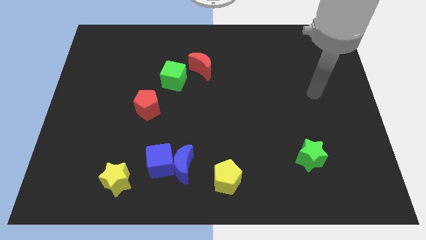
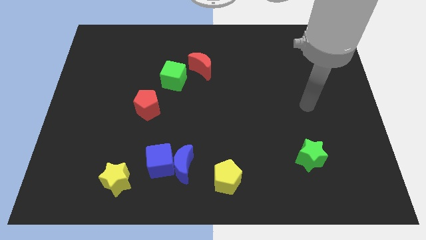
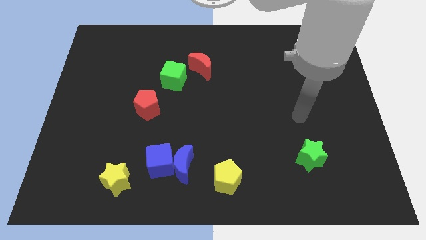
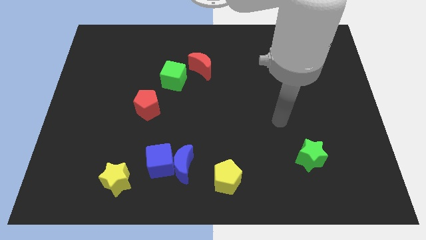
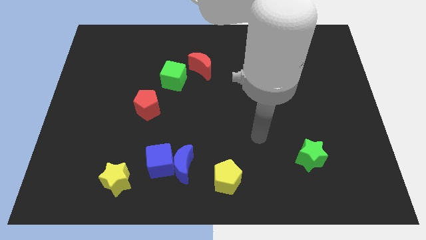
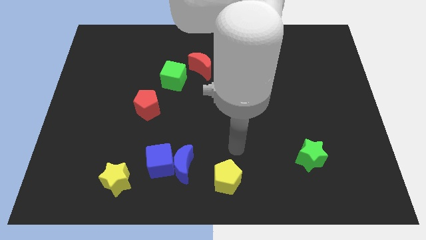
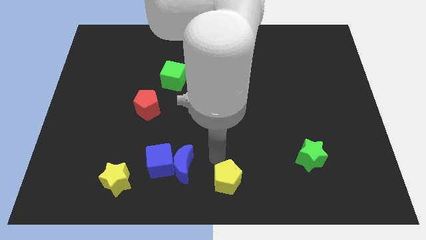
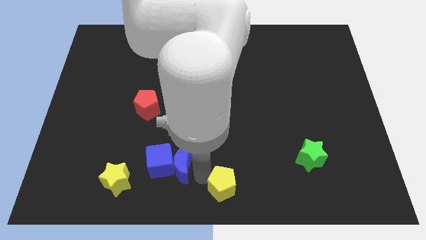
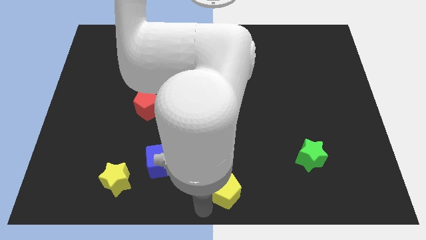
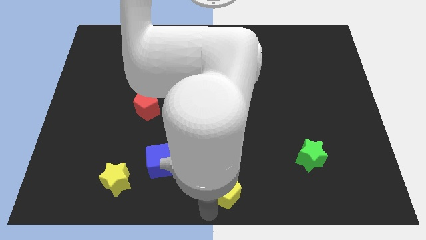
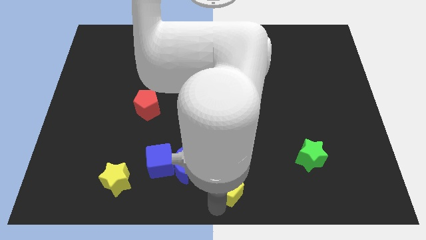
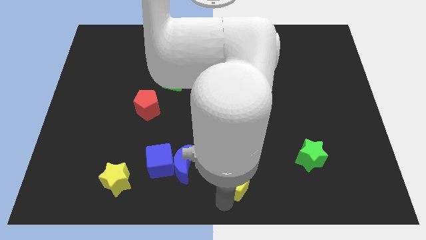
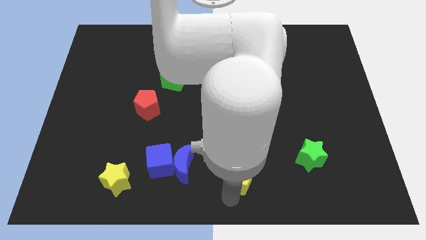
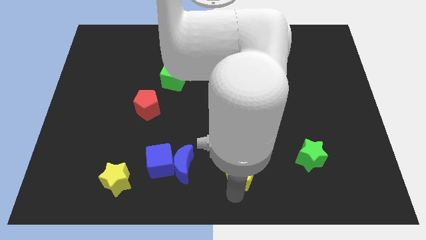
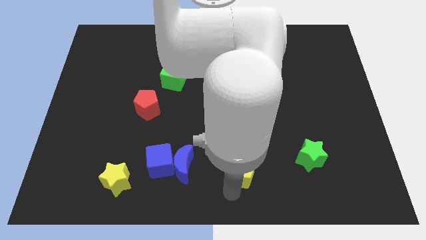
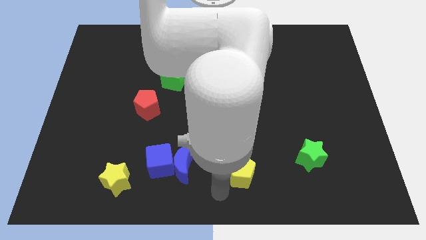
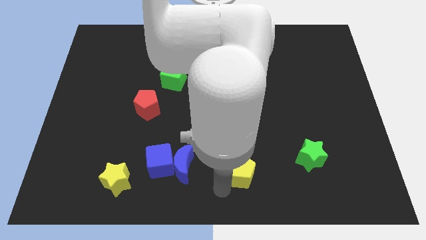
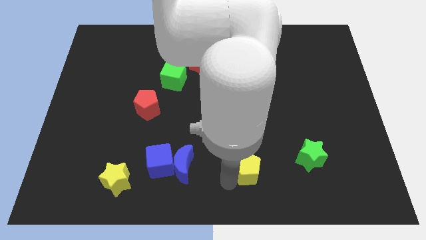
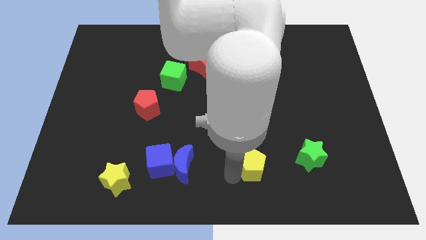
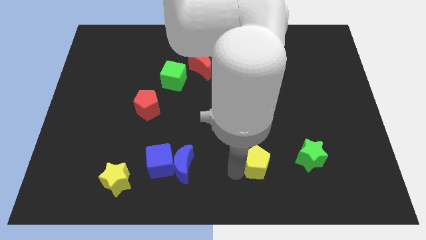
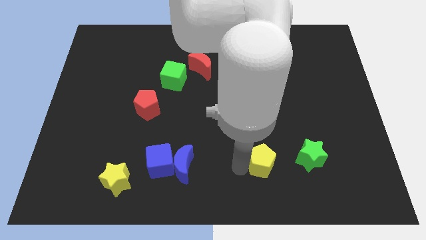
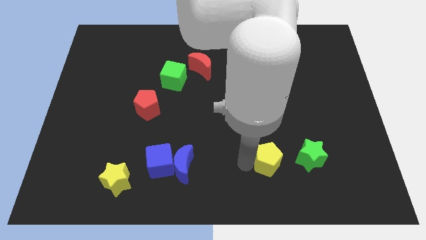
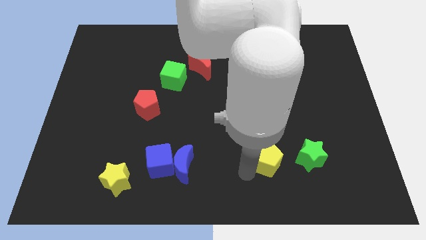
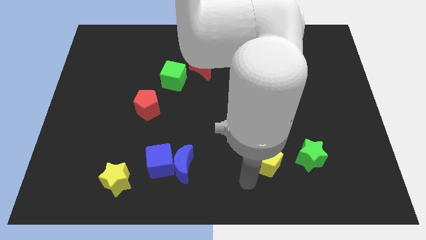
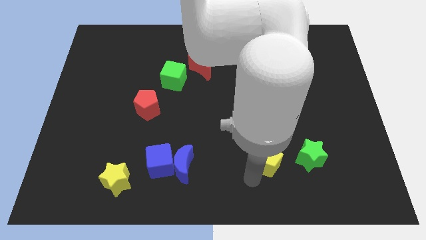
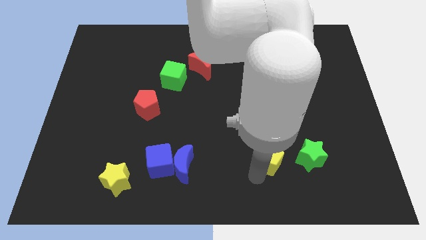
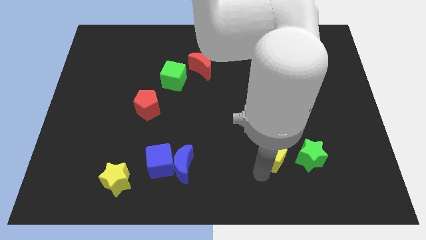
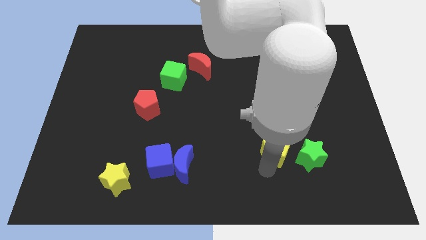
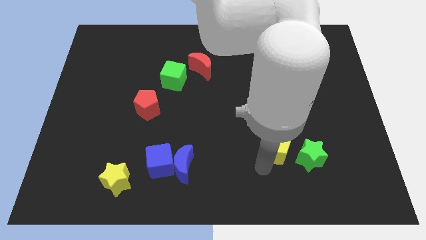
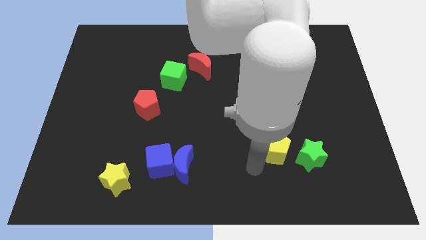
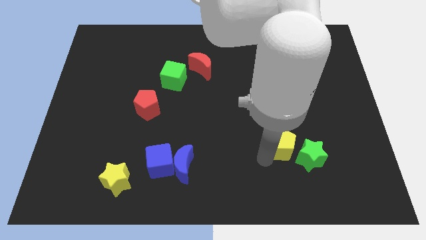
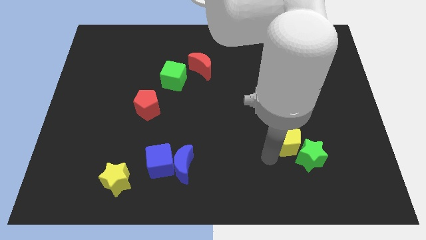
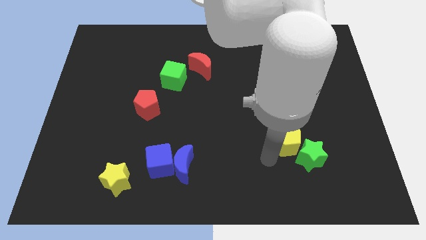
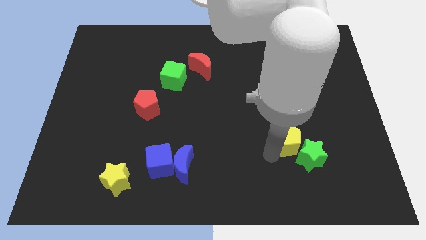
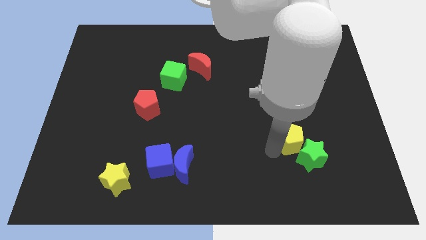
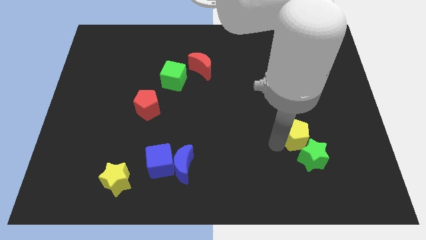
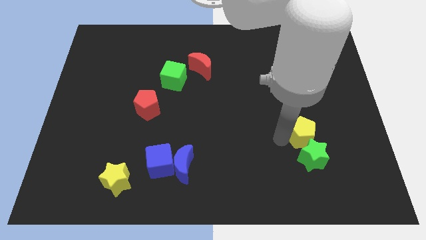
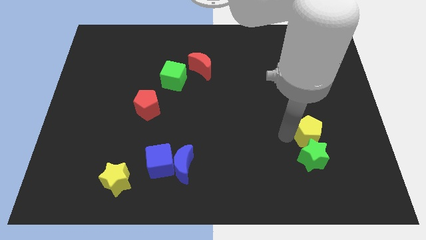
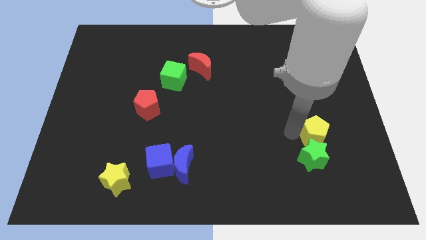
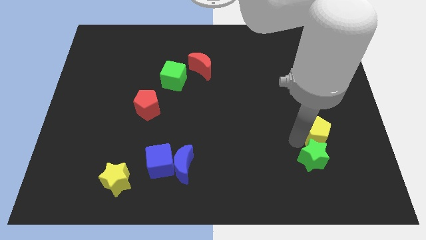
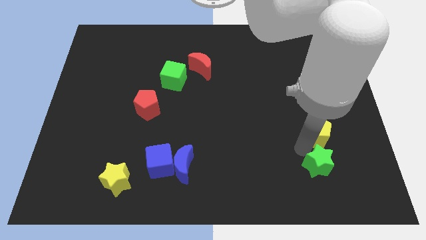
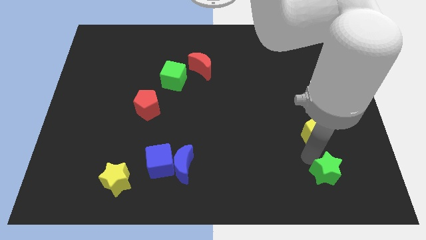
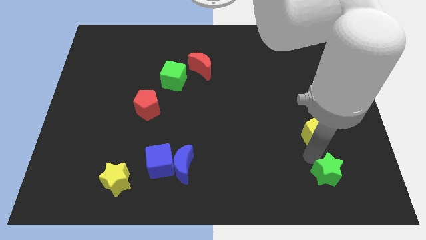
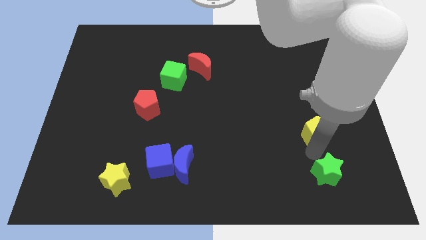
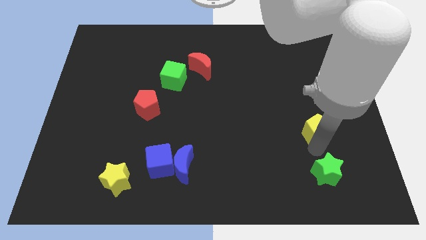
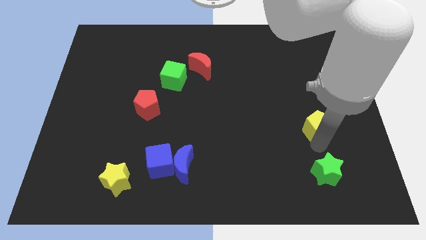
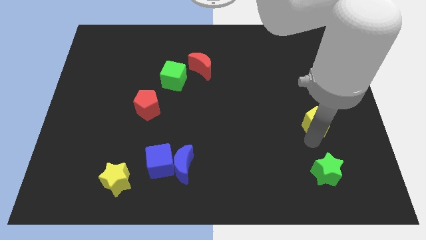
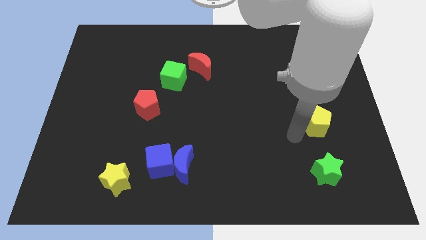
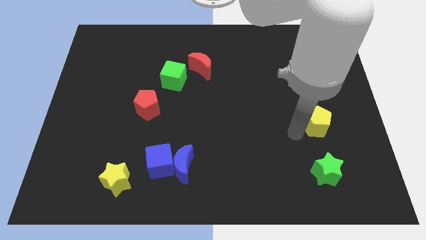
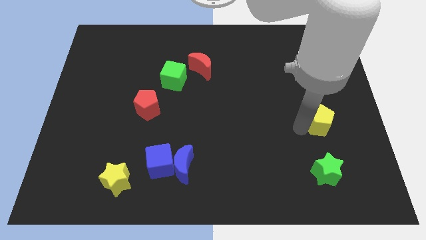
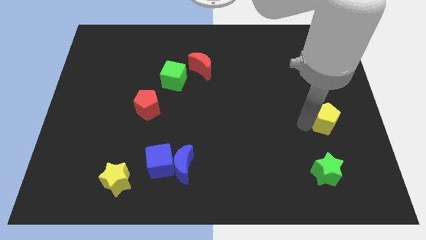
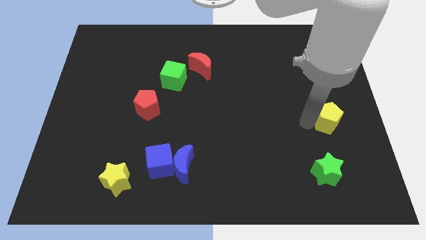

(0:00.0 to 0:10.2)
move the yellow pentagon to the right side of the board

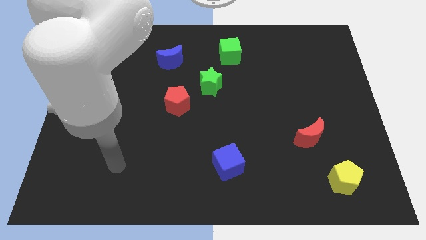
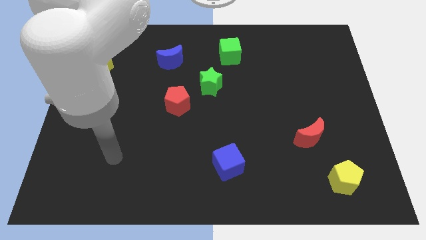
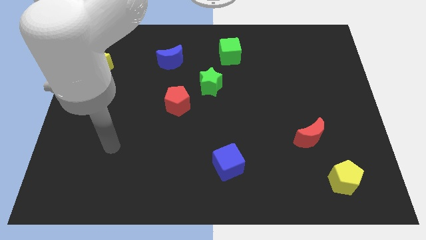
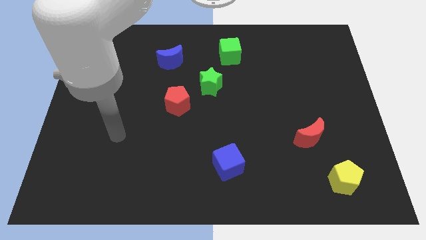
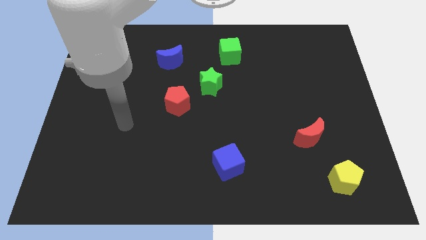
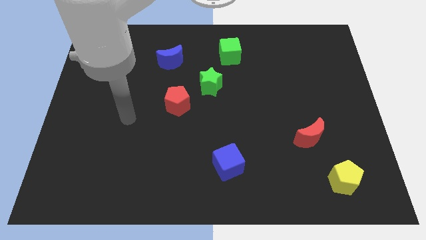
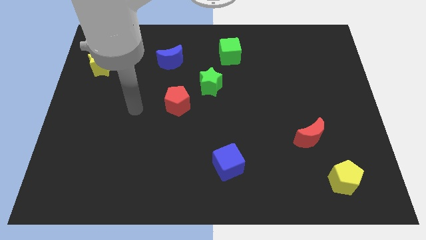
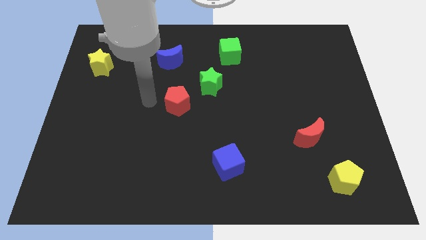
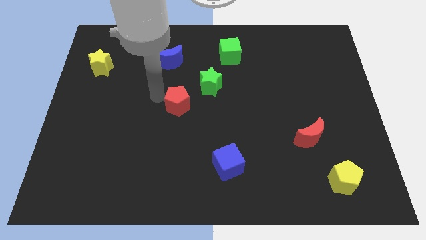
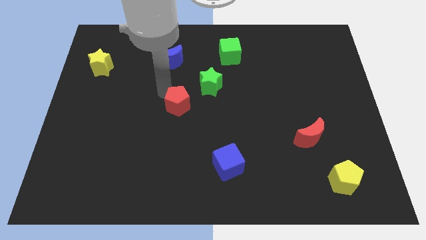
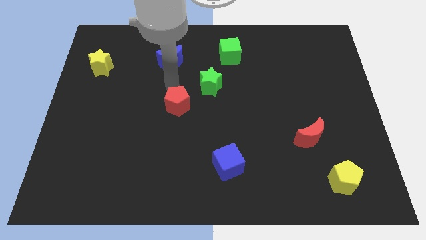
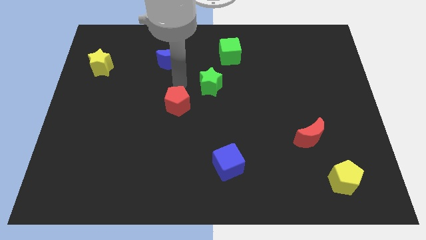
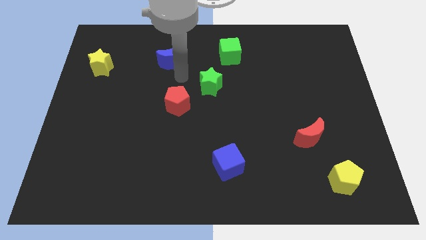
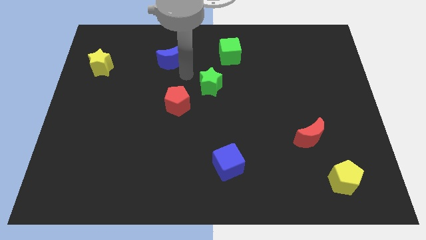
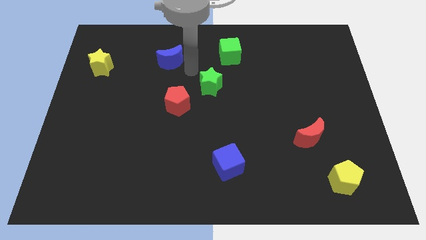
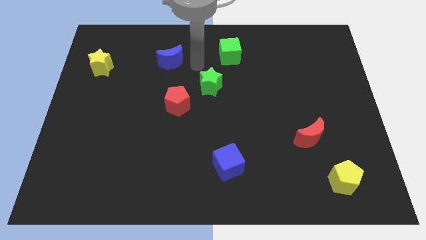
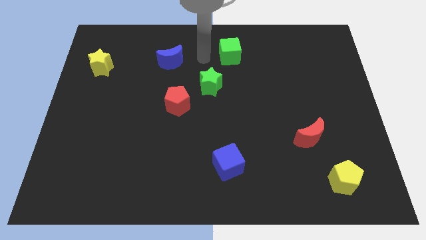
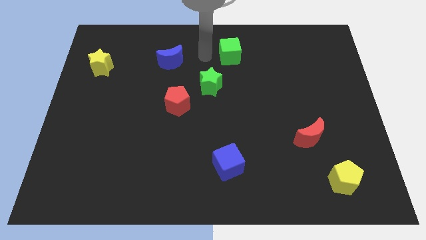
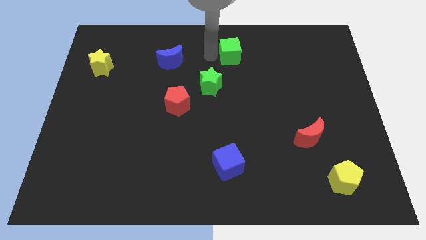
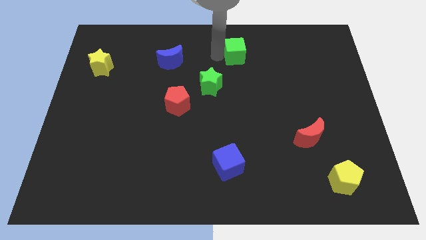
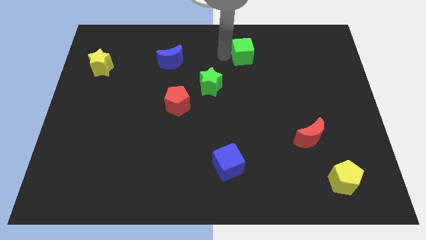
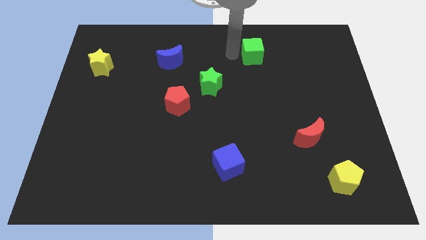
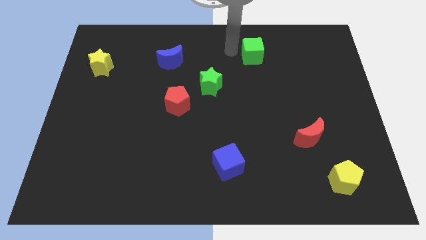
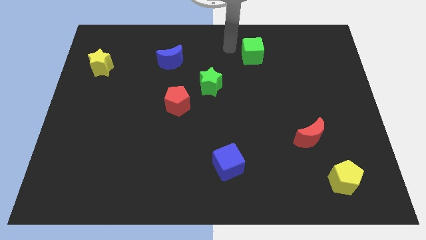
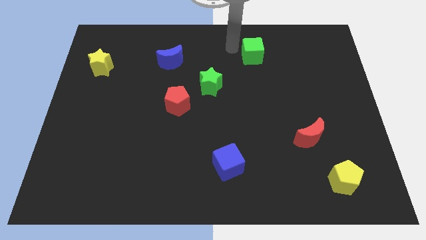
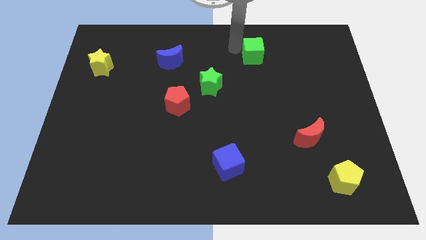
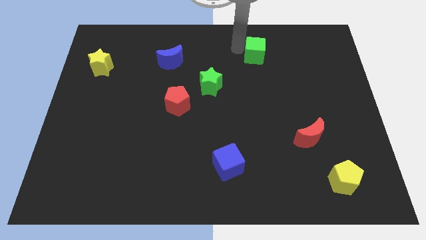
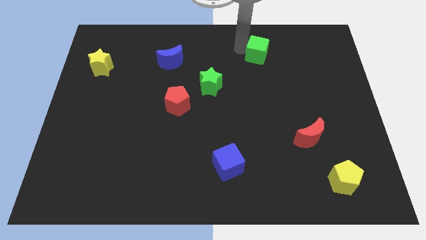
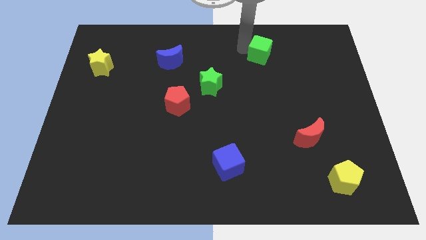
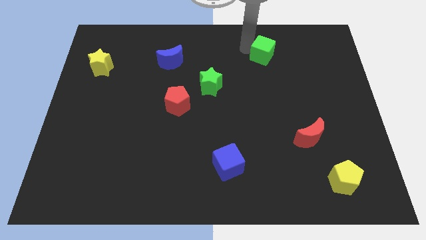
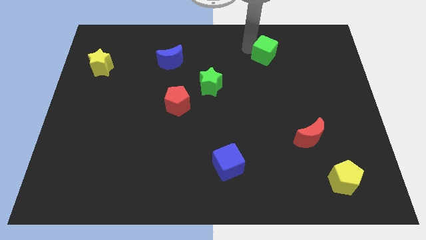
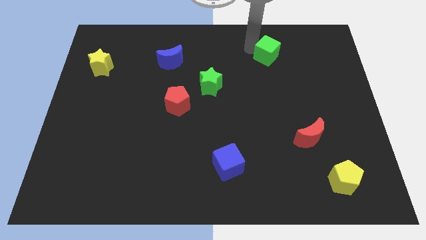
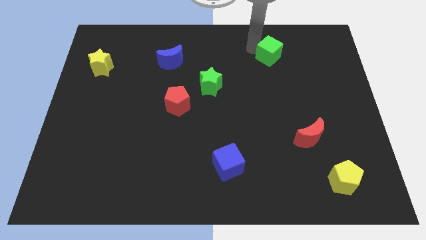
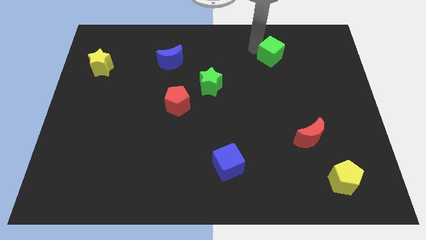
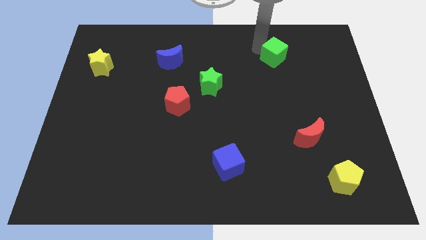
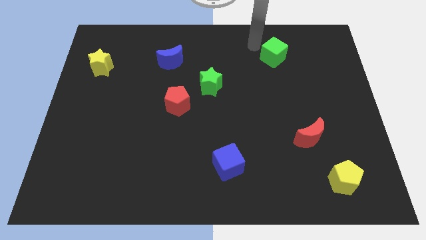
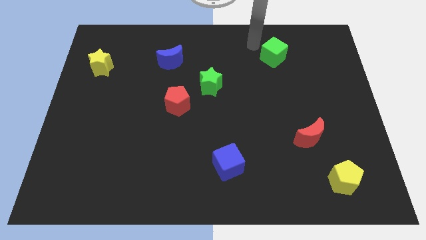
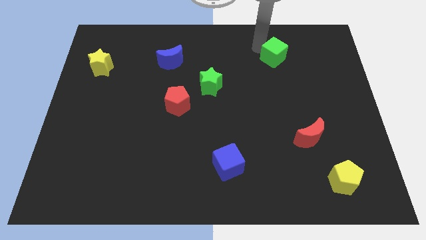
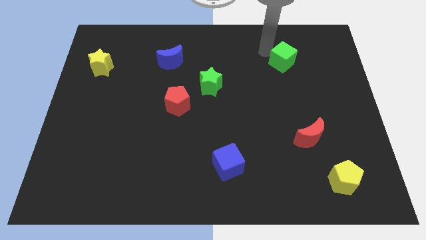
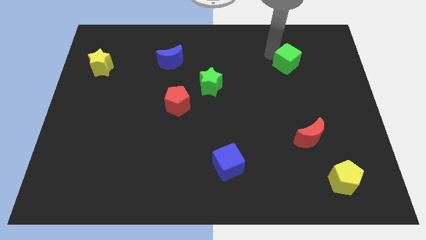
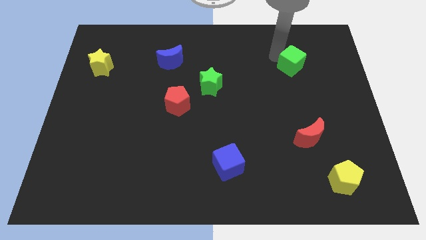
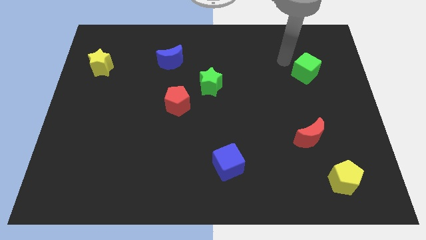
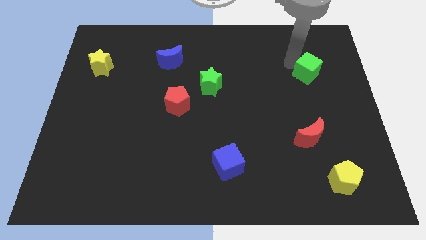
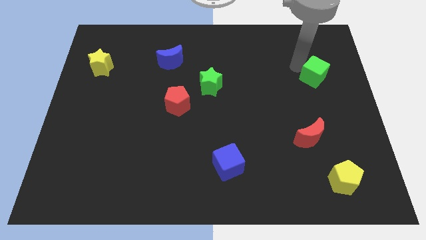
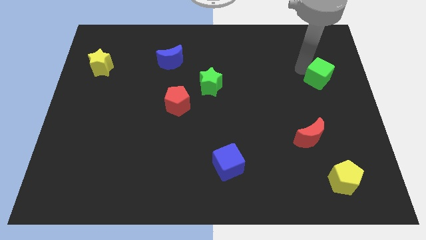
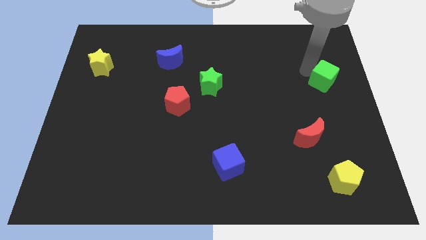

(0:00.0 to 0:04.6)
slide the green cube to the center right
